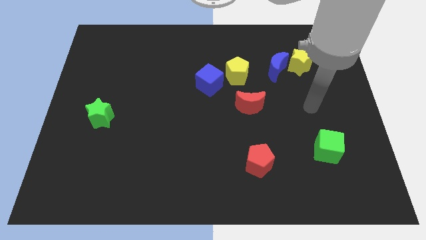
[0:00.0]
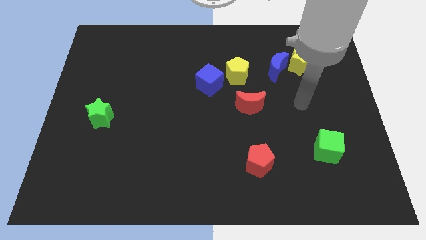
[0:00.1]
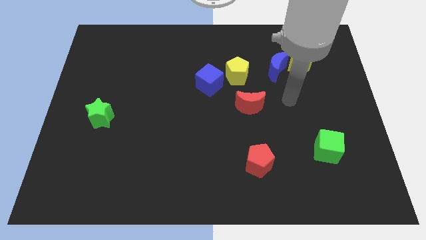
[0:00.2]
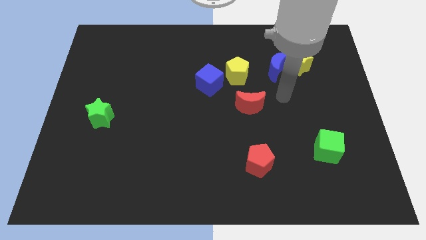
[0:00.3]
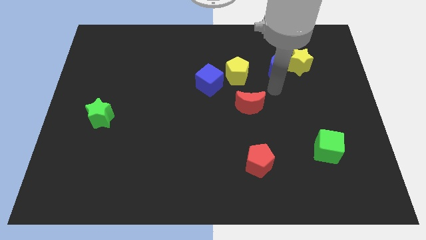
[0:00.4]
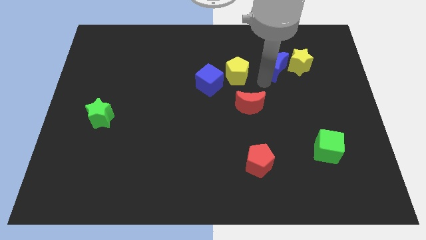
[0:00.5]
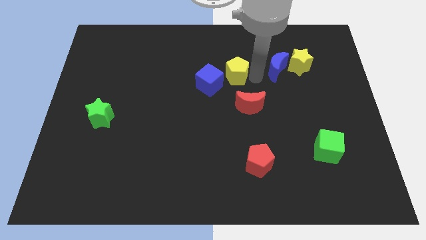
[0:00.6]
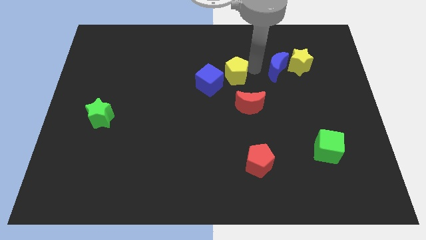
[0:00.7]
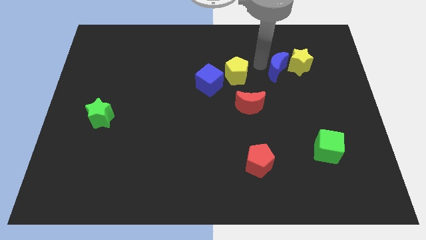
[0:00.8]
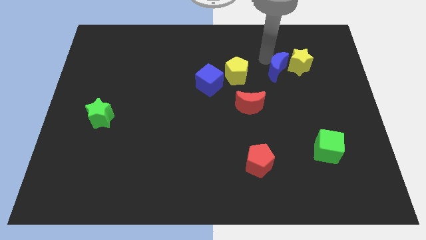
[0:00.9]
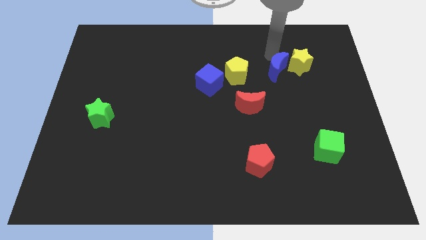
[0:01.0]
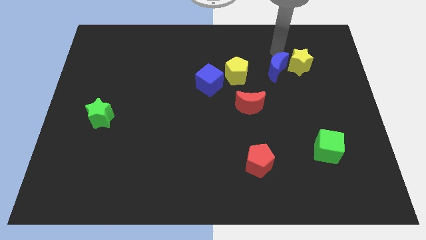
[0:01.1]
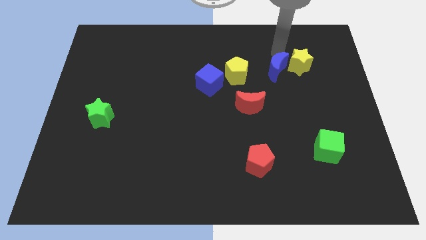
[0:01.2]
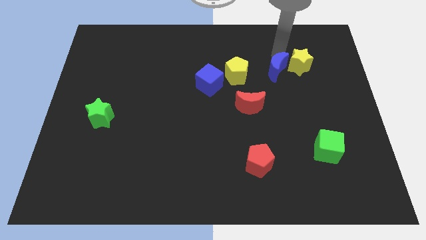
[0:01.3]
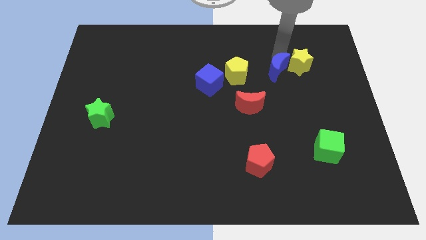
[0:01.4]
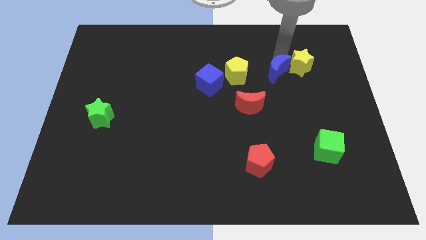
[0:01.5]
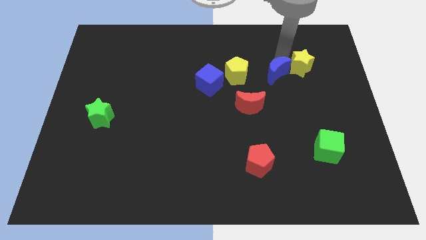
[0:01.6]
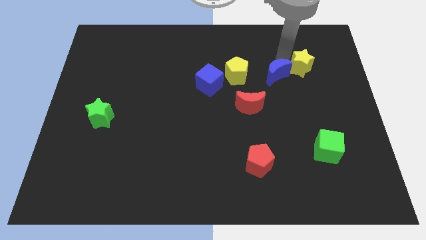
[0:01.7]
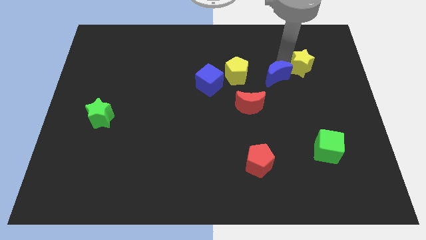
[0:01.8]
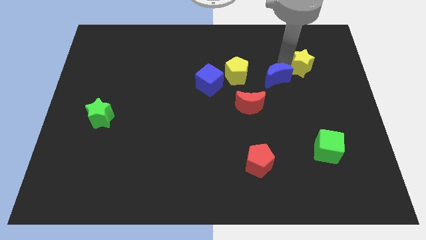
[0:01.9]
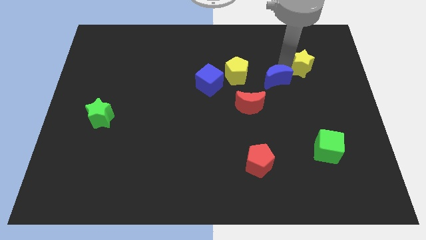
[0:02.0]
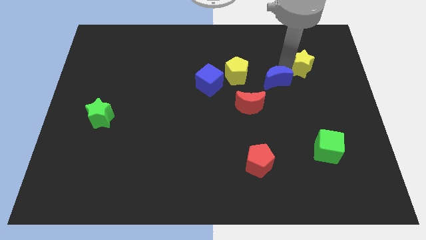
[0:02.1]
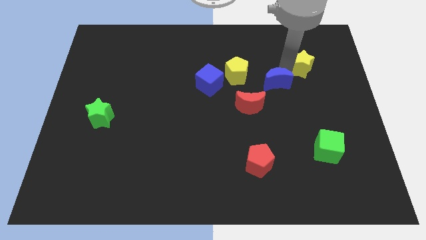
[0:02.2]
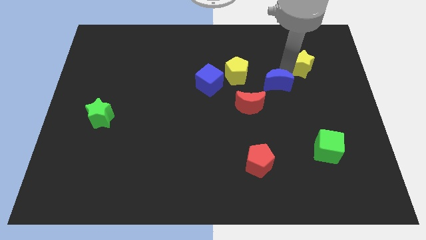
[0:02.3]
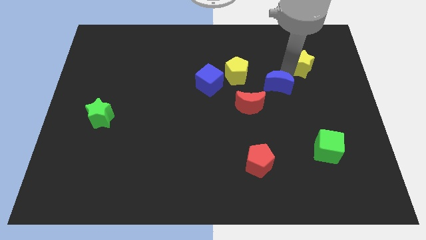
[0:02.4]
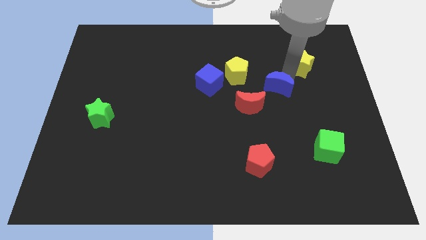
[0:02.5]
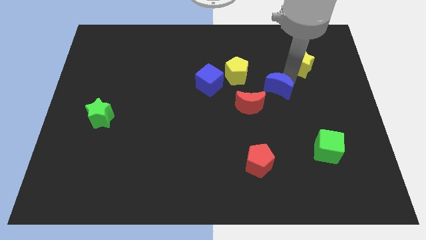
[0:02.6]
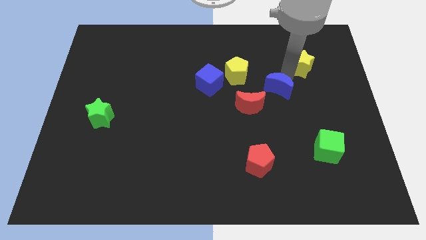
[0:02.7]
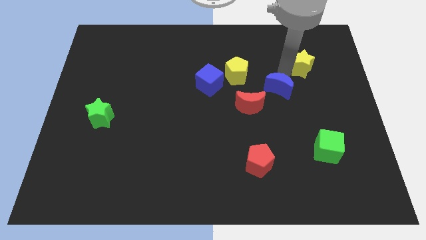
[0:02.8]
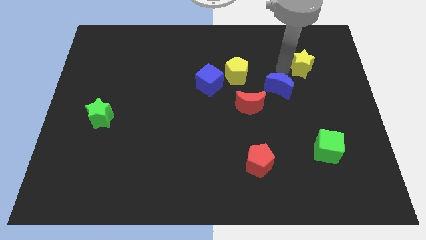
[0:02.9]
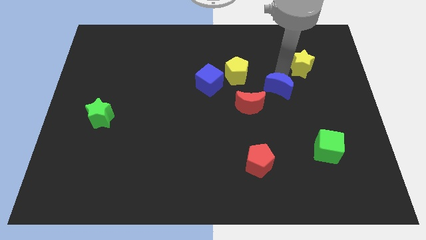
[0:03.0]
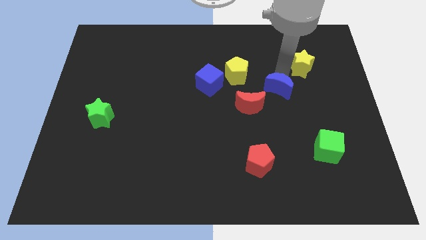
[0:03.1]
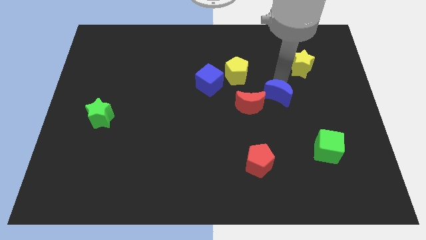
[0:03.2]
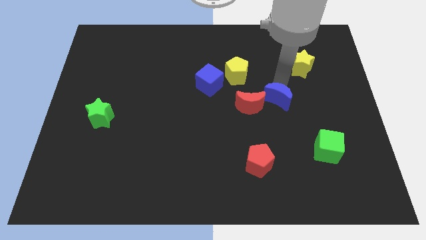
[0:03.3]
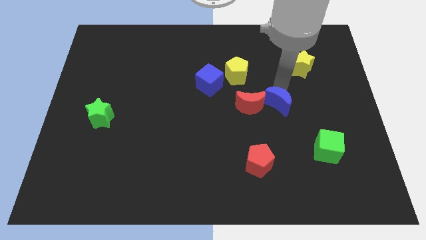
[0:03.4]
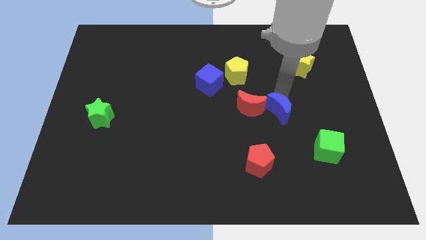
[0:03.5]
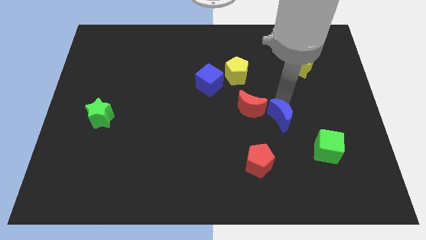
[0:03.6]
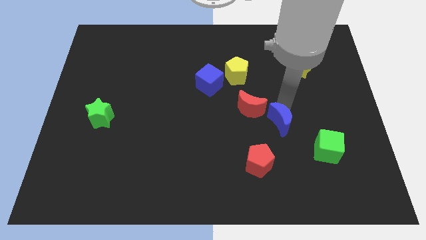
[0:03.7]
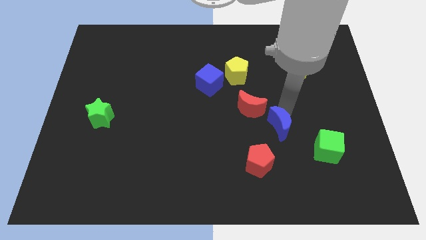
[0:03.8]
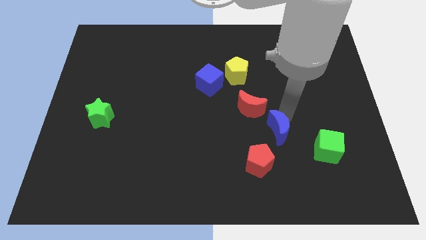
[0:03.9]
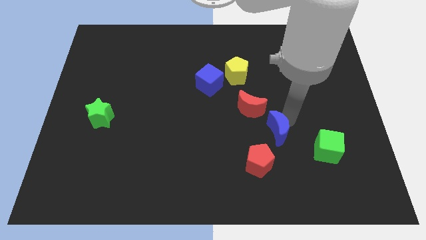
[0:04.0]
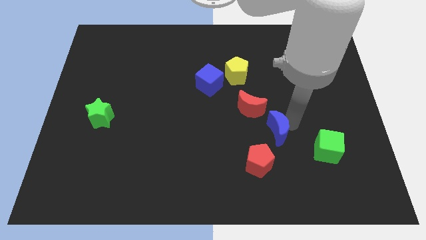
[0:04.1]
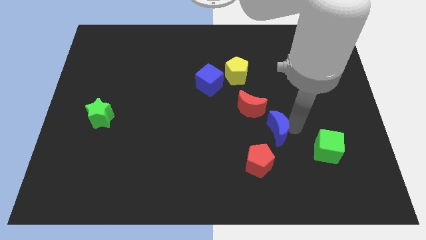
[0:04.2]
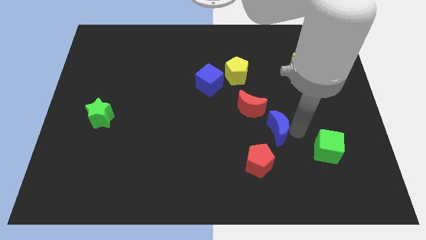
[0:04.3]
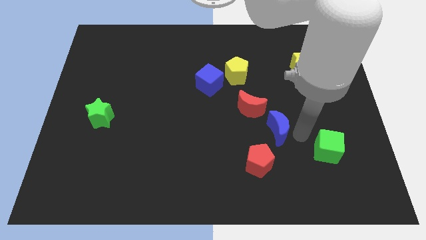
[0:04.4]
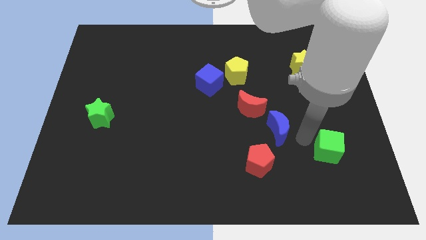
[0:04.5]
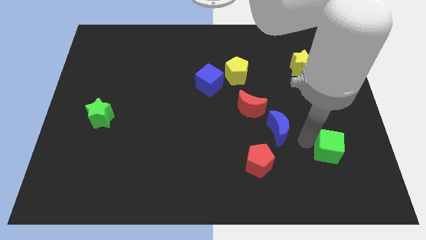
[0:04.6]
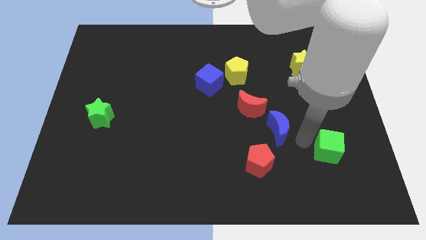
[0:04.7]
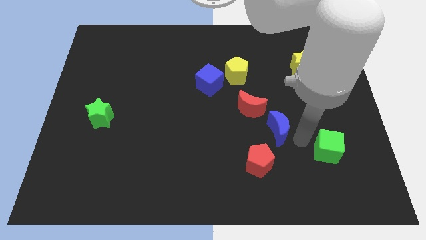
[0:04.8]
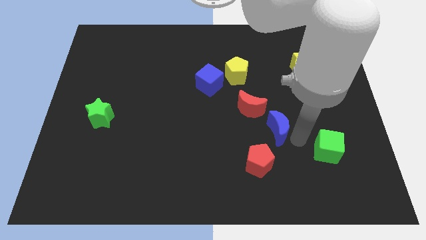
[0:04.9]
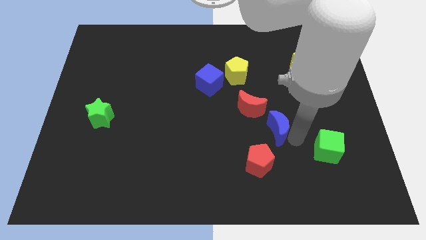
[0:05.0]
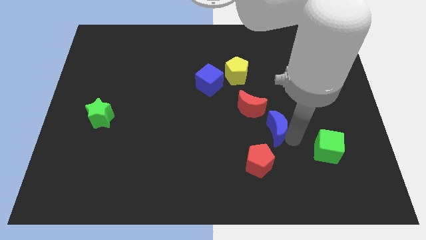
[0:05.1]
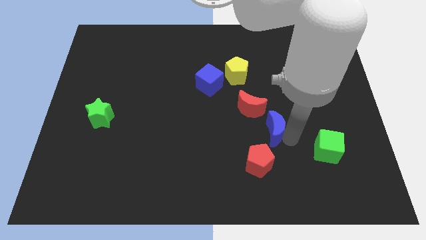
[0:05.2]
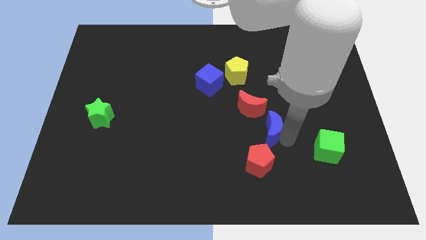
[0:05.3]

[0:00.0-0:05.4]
move the blue moon to the bottom side of the red moon

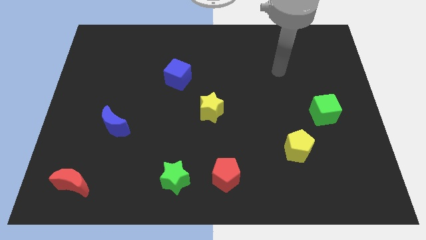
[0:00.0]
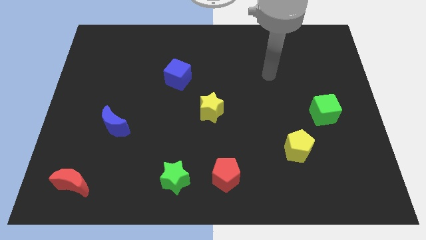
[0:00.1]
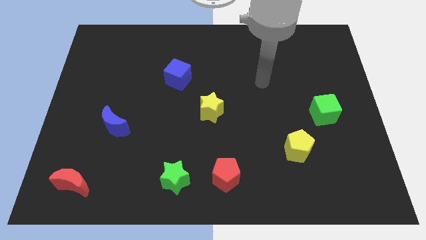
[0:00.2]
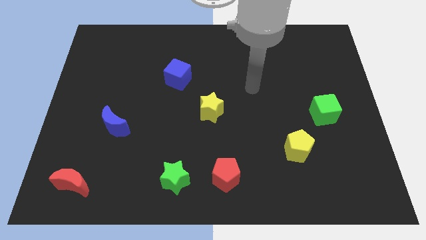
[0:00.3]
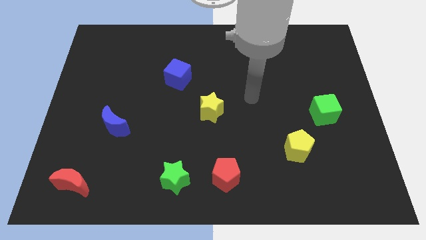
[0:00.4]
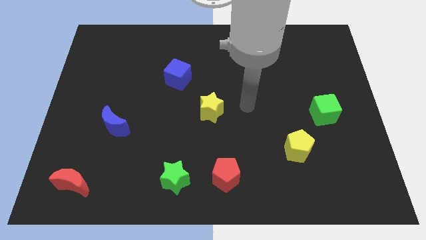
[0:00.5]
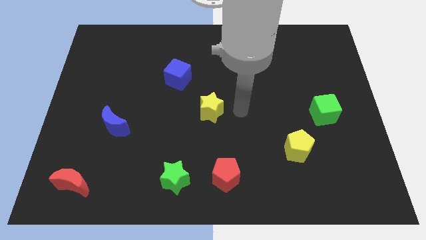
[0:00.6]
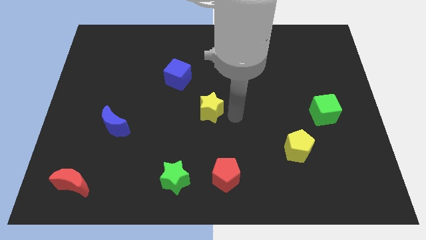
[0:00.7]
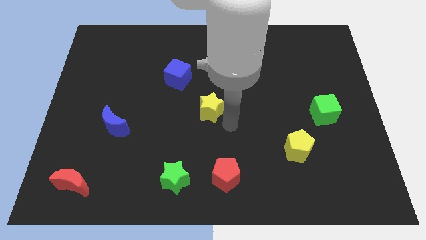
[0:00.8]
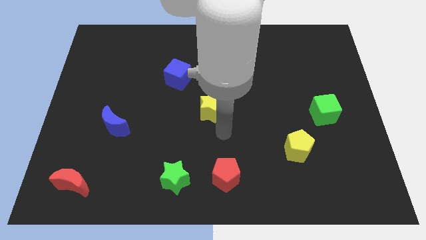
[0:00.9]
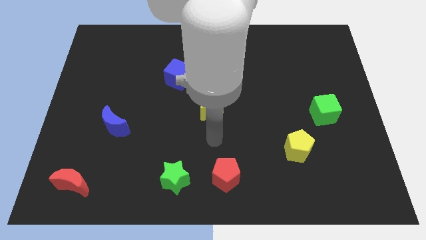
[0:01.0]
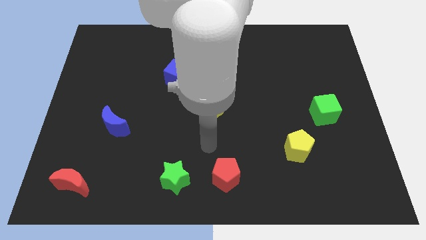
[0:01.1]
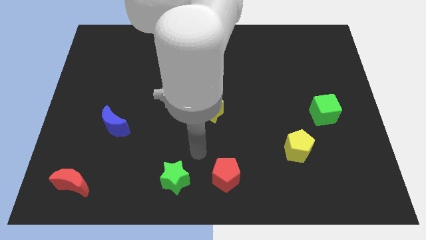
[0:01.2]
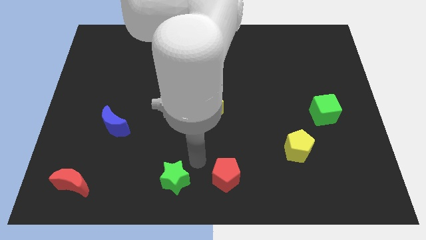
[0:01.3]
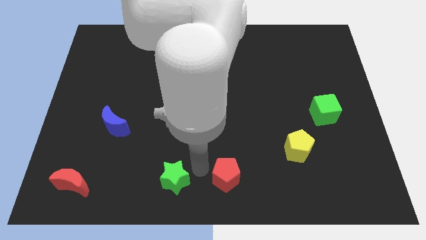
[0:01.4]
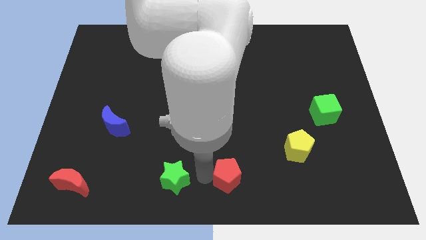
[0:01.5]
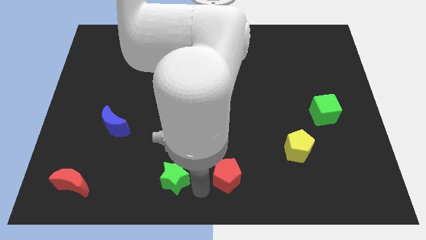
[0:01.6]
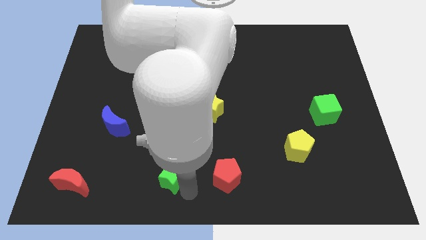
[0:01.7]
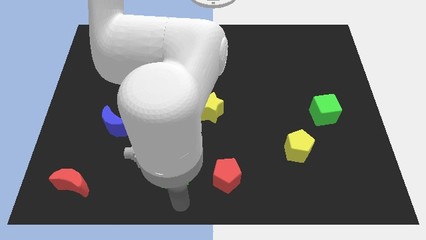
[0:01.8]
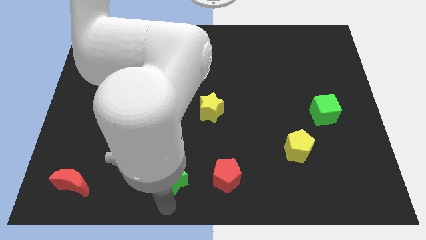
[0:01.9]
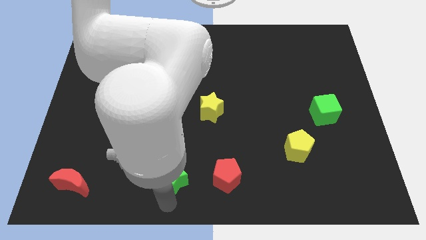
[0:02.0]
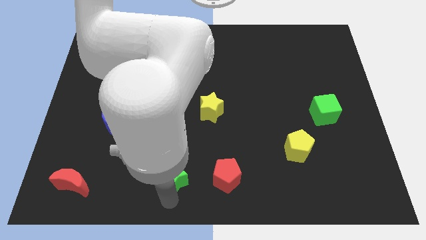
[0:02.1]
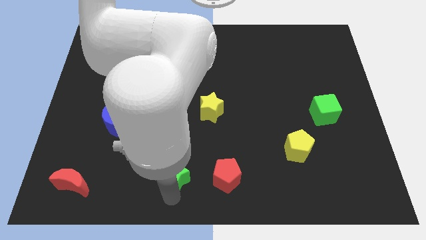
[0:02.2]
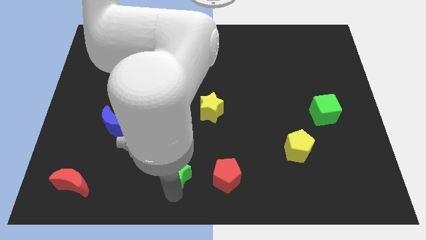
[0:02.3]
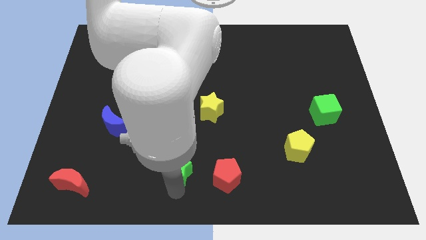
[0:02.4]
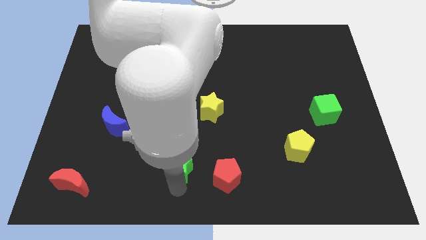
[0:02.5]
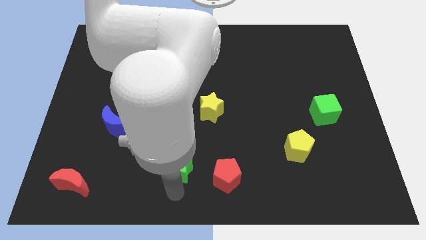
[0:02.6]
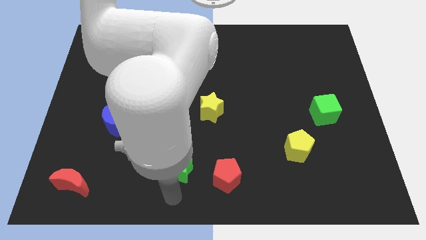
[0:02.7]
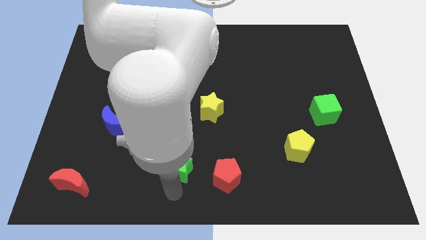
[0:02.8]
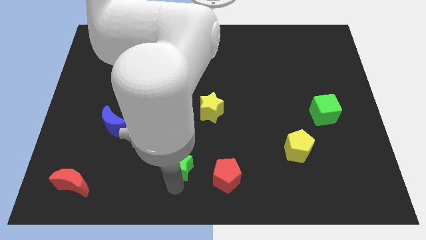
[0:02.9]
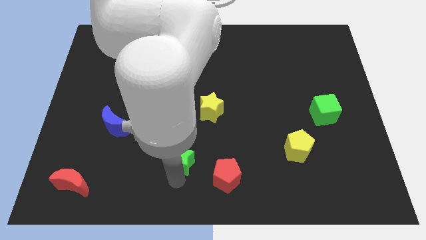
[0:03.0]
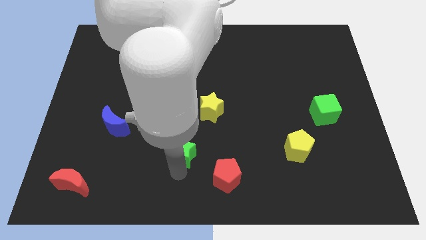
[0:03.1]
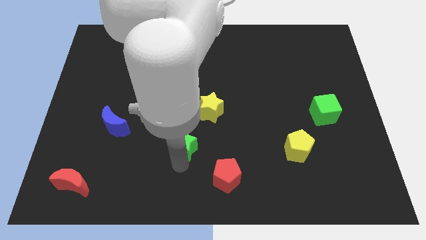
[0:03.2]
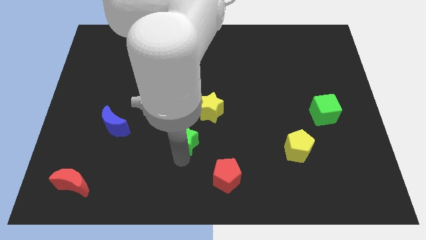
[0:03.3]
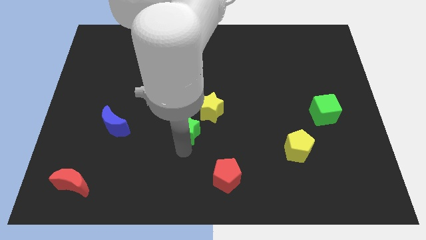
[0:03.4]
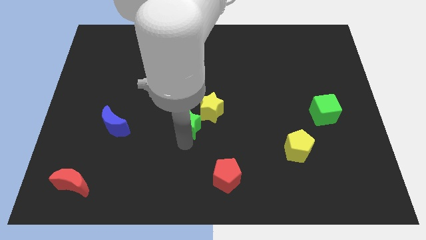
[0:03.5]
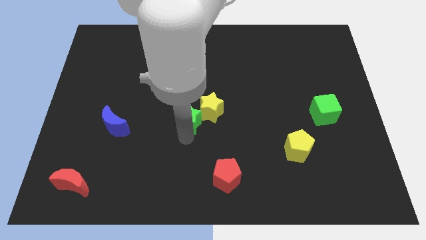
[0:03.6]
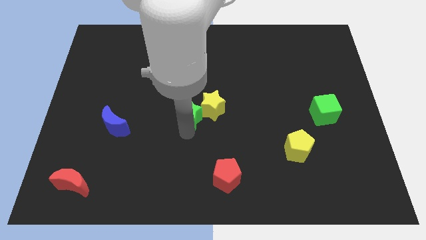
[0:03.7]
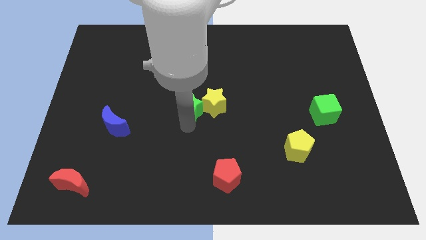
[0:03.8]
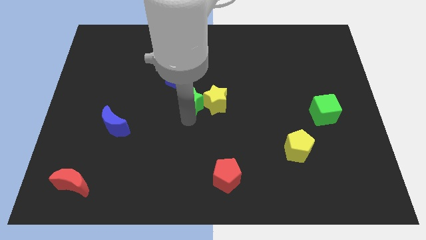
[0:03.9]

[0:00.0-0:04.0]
push the green star to the bottom right of the blue cube
